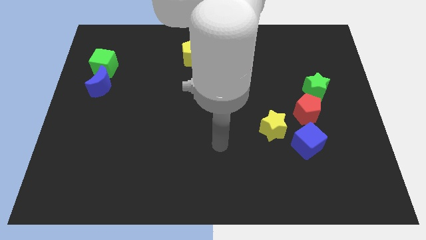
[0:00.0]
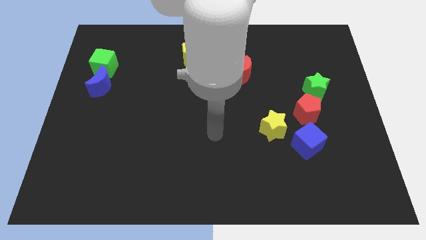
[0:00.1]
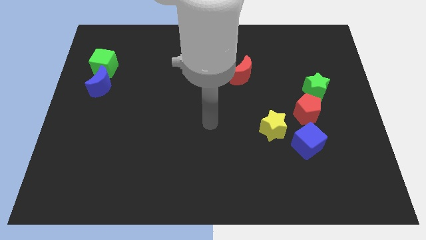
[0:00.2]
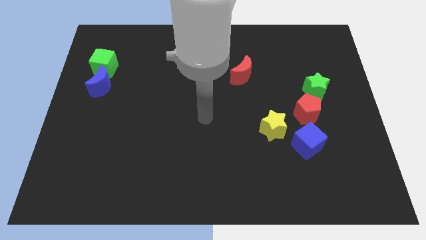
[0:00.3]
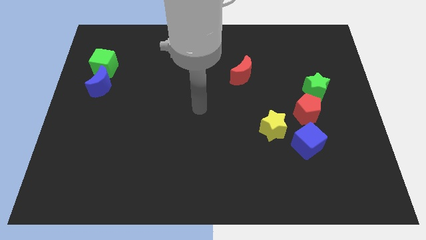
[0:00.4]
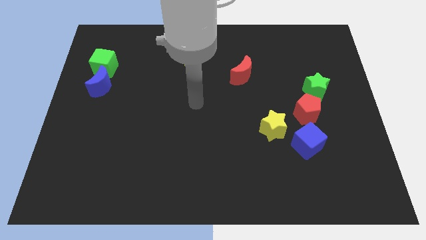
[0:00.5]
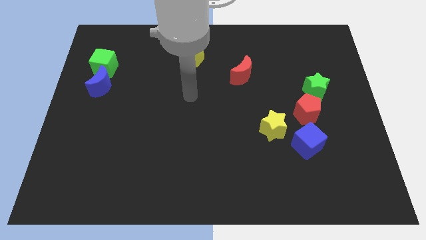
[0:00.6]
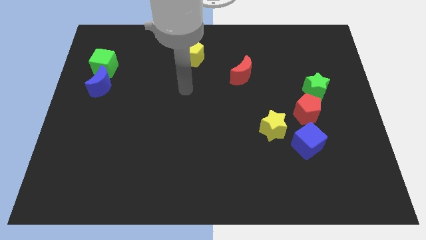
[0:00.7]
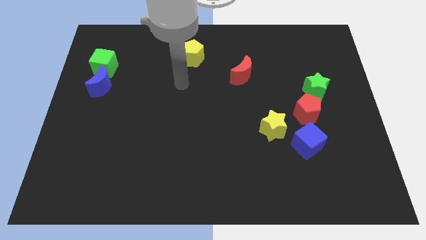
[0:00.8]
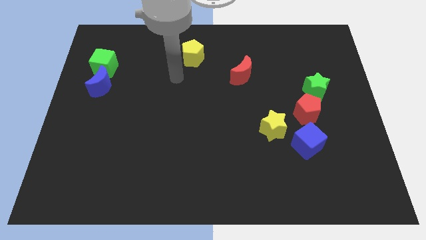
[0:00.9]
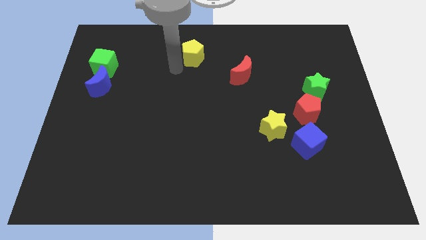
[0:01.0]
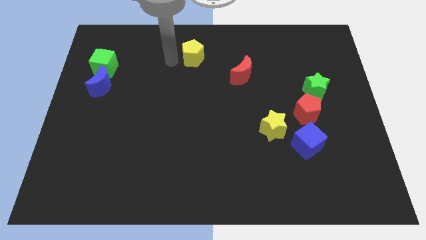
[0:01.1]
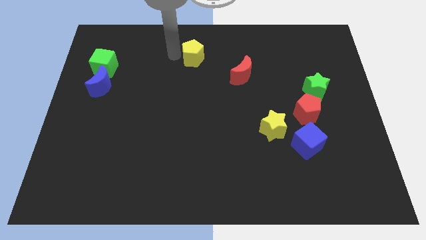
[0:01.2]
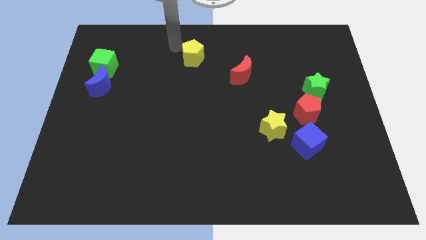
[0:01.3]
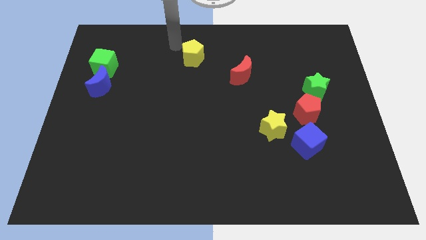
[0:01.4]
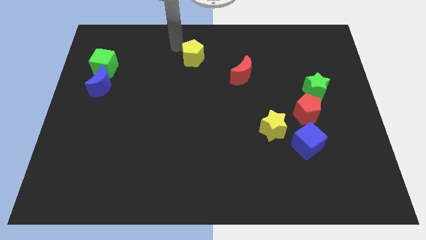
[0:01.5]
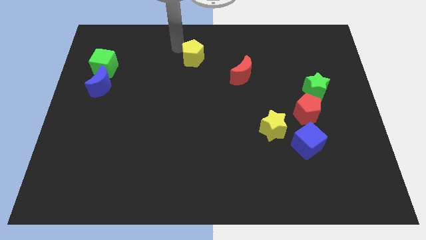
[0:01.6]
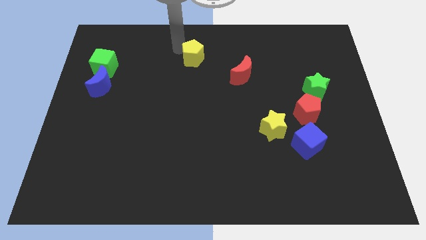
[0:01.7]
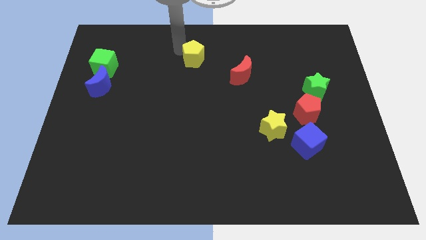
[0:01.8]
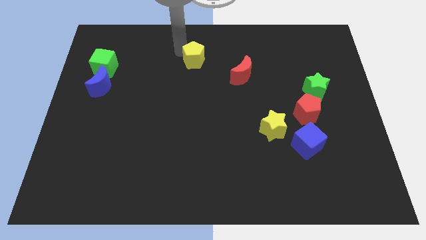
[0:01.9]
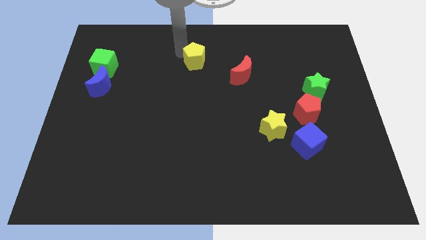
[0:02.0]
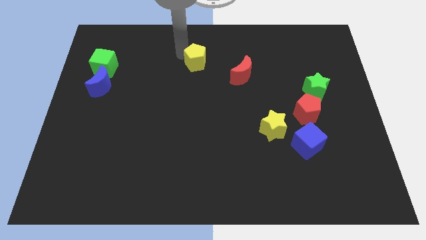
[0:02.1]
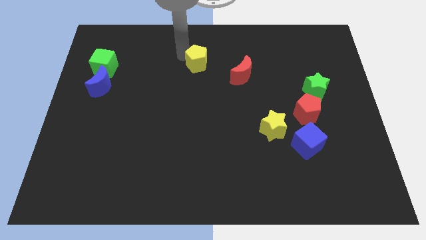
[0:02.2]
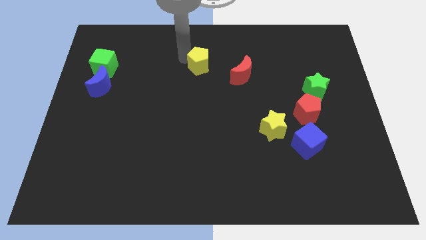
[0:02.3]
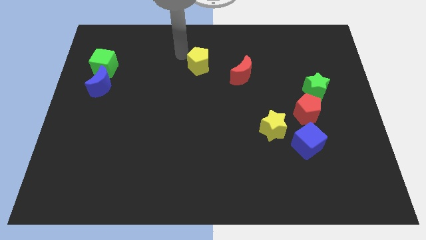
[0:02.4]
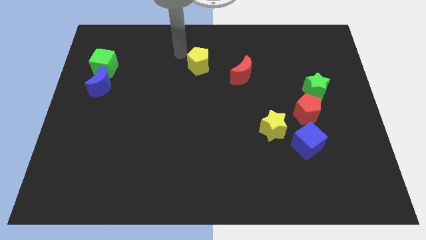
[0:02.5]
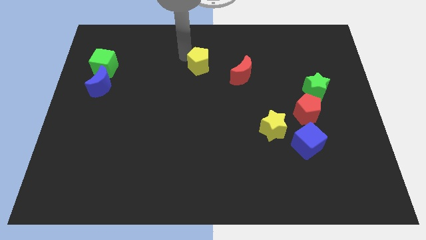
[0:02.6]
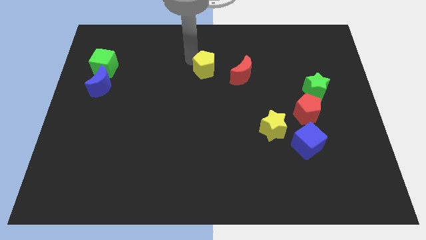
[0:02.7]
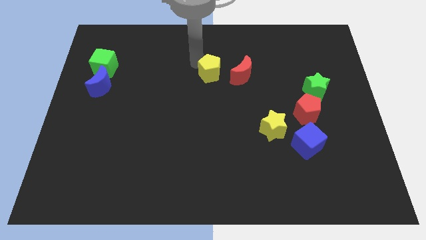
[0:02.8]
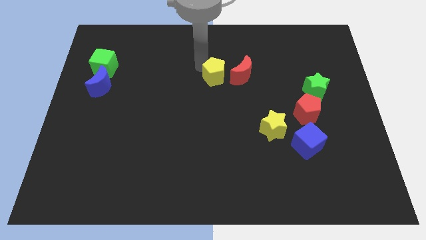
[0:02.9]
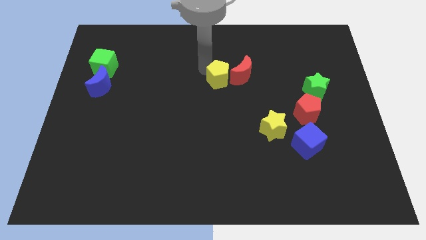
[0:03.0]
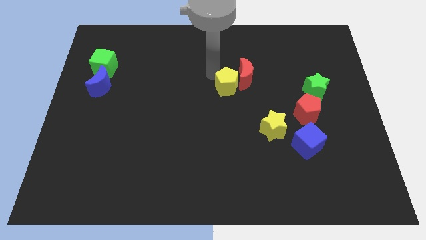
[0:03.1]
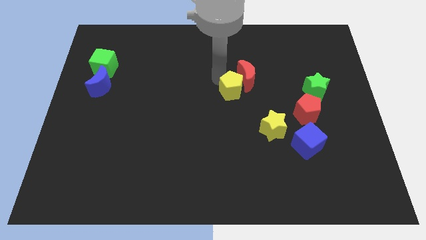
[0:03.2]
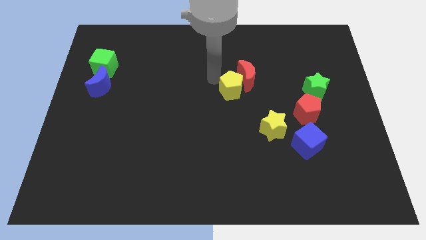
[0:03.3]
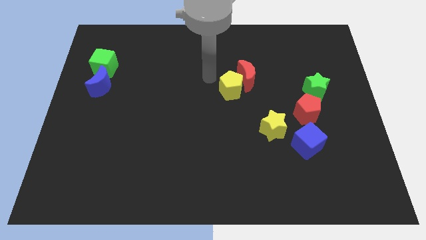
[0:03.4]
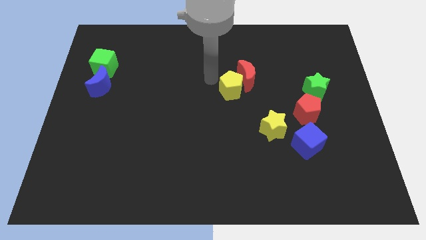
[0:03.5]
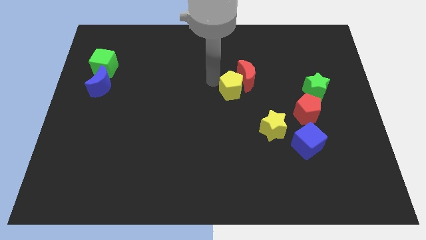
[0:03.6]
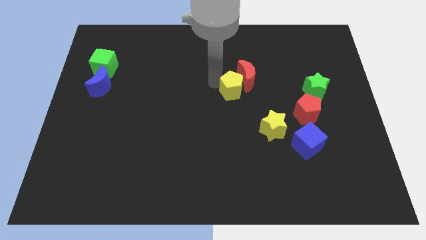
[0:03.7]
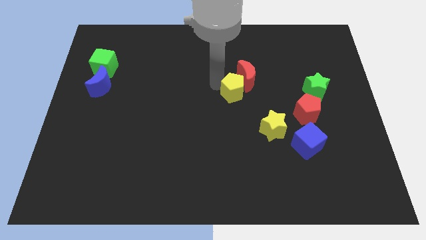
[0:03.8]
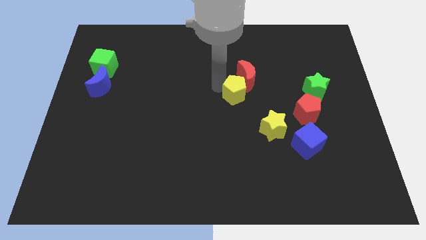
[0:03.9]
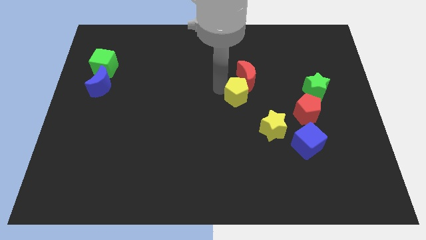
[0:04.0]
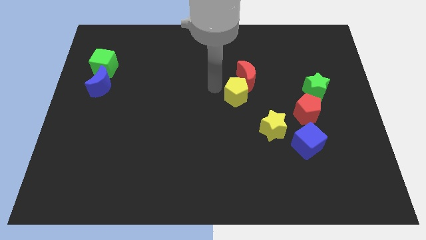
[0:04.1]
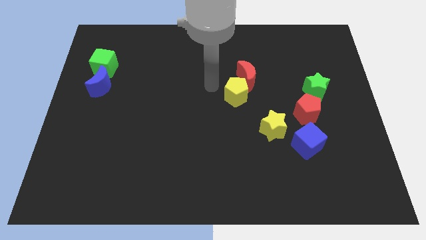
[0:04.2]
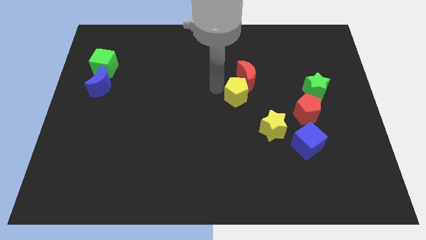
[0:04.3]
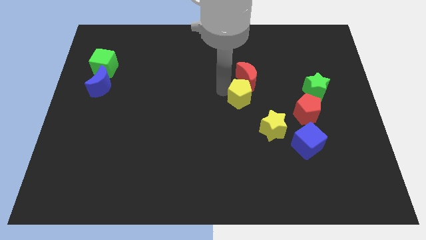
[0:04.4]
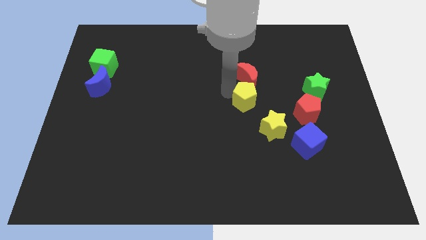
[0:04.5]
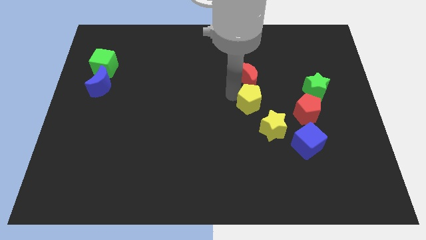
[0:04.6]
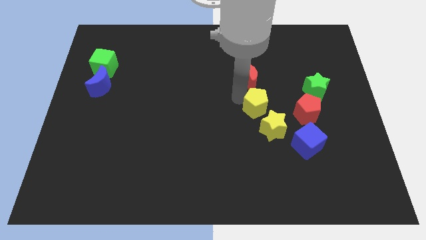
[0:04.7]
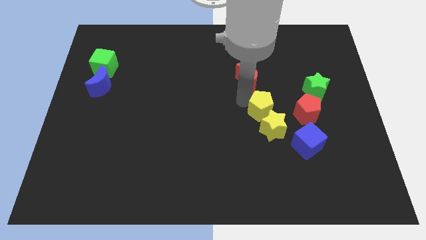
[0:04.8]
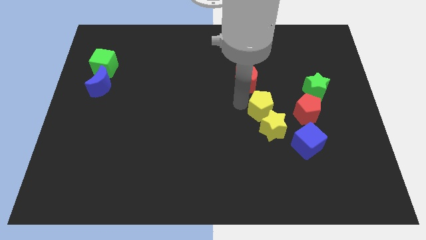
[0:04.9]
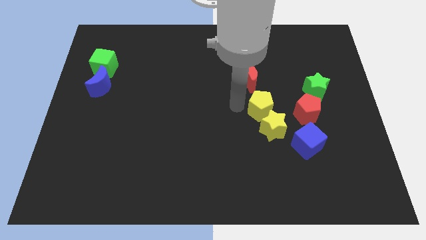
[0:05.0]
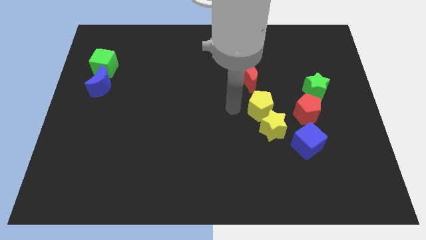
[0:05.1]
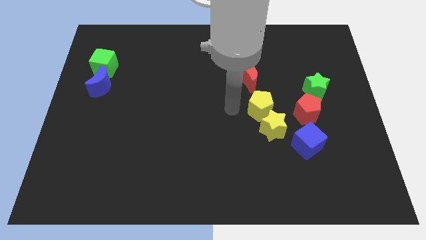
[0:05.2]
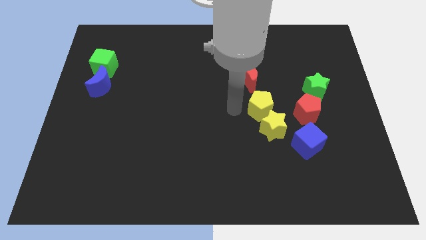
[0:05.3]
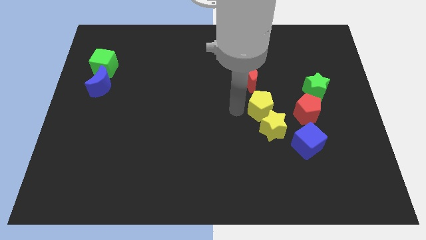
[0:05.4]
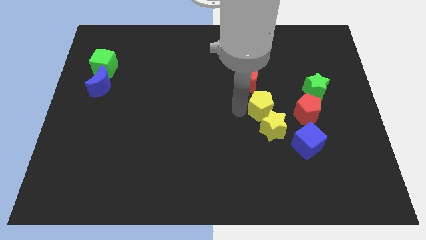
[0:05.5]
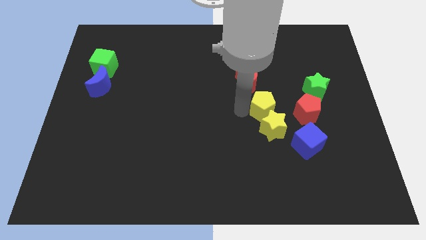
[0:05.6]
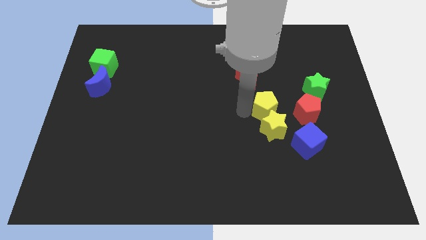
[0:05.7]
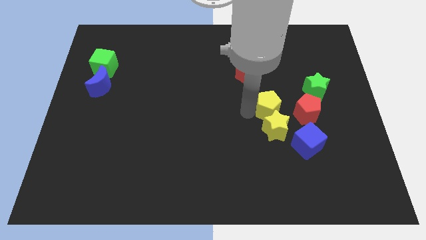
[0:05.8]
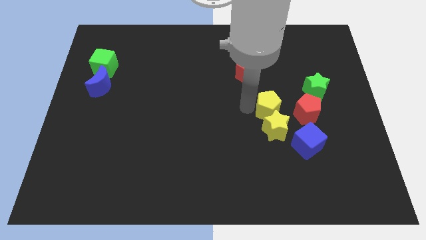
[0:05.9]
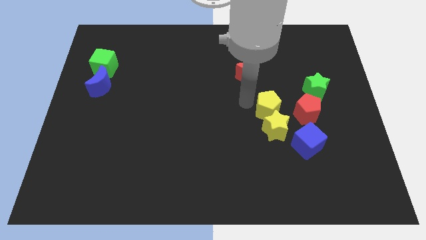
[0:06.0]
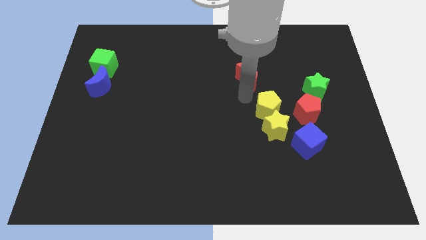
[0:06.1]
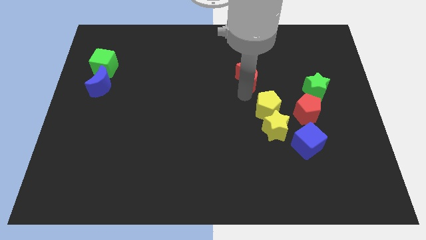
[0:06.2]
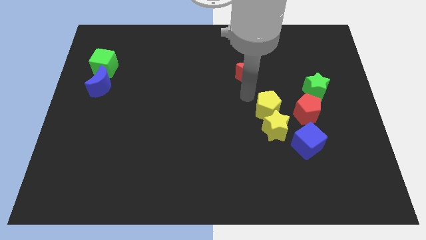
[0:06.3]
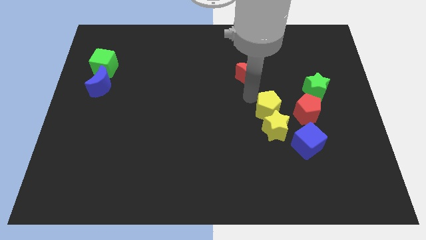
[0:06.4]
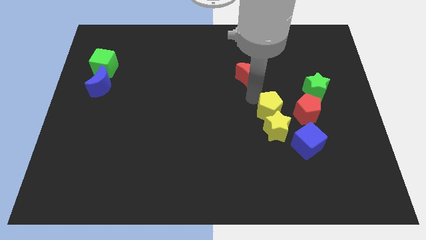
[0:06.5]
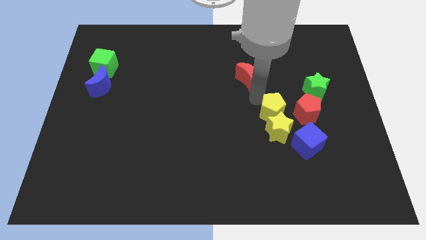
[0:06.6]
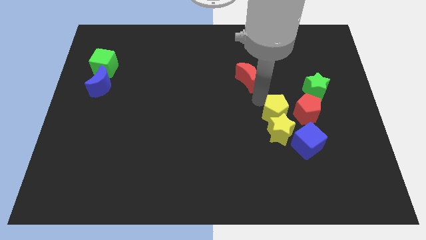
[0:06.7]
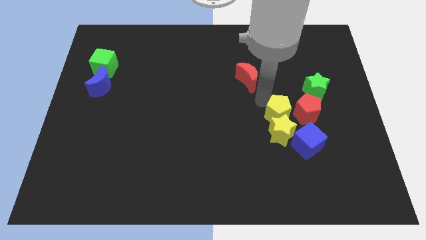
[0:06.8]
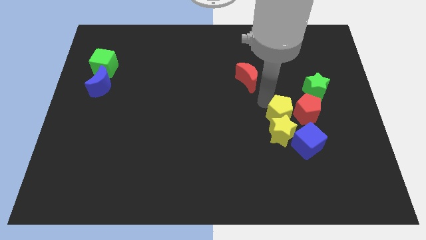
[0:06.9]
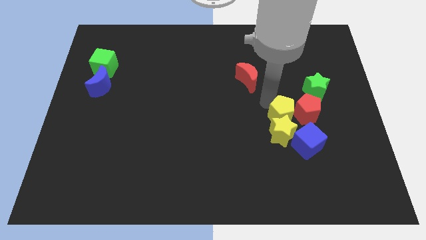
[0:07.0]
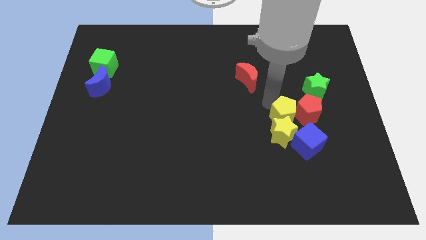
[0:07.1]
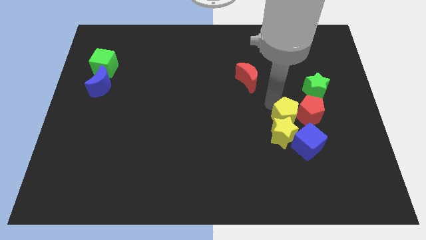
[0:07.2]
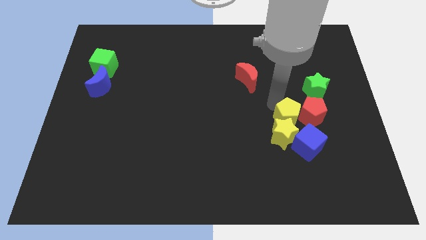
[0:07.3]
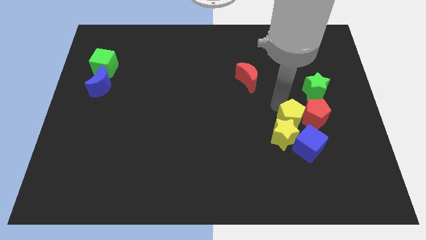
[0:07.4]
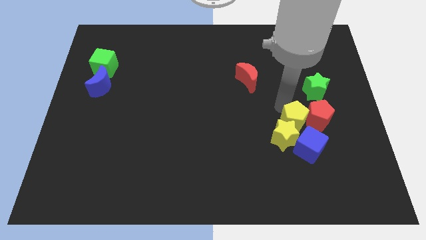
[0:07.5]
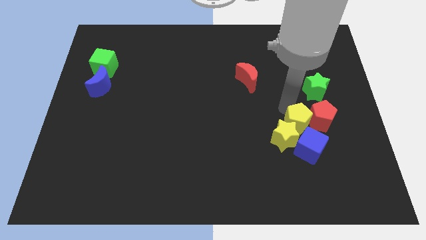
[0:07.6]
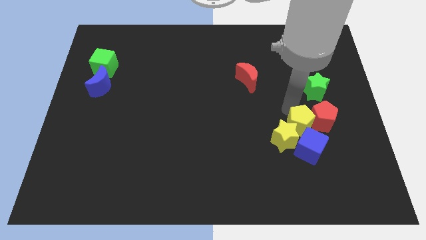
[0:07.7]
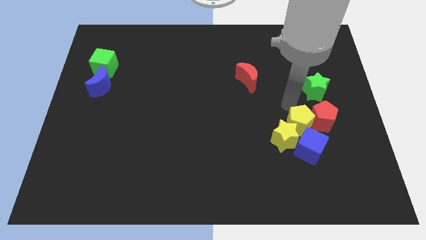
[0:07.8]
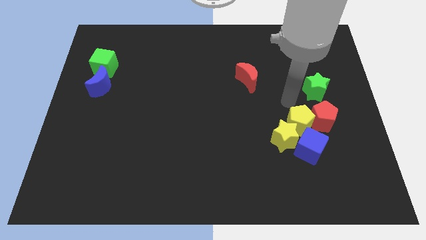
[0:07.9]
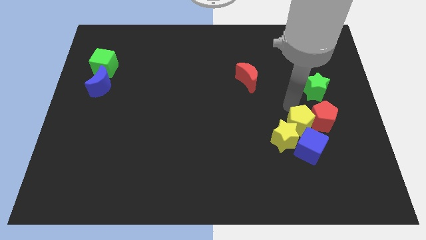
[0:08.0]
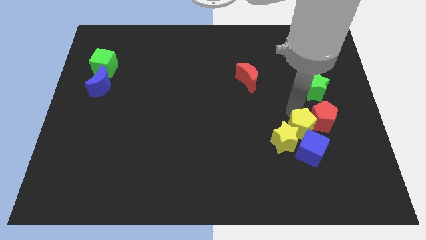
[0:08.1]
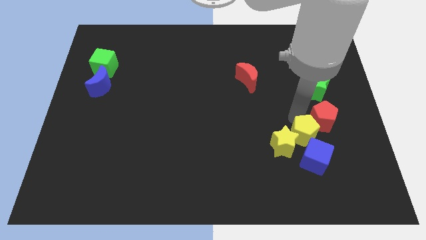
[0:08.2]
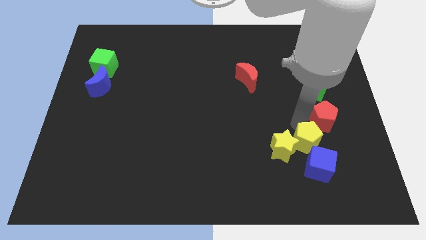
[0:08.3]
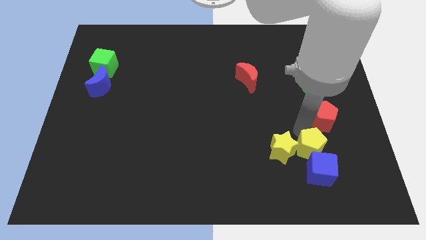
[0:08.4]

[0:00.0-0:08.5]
move the yellow pentagon towards the blue cube
